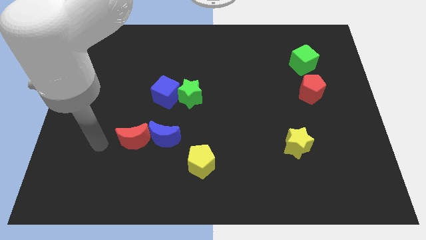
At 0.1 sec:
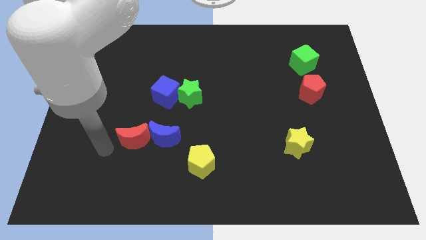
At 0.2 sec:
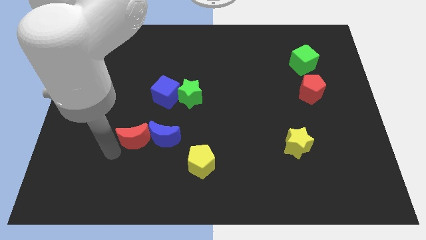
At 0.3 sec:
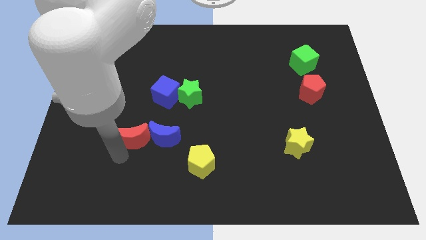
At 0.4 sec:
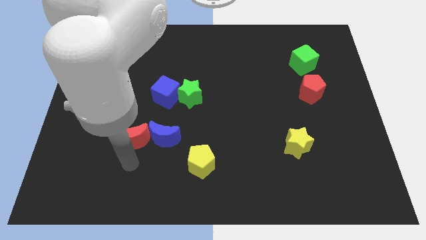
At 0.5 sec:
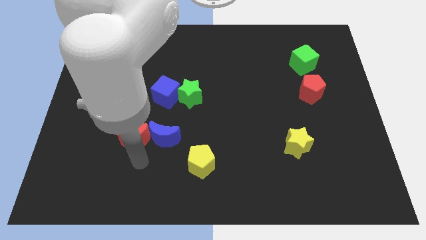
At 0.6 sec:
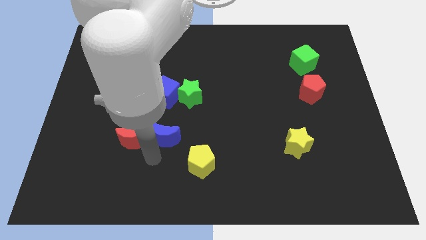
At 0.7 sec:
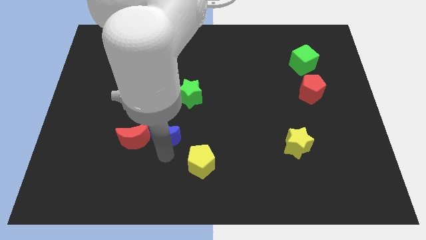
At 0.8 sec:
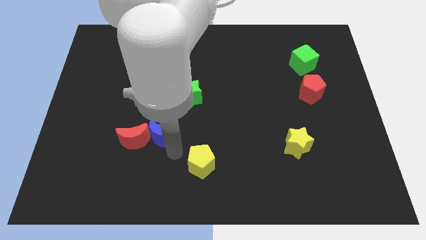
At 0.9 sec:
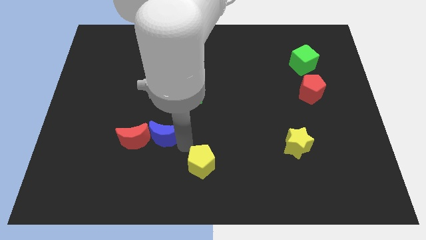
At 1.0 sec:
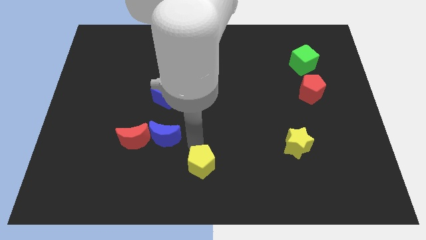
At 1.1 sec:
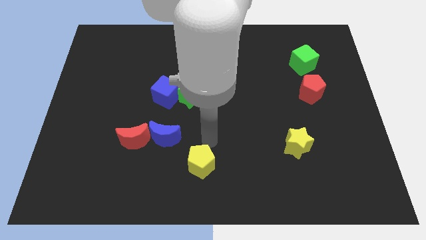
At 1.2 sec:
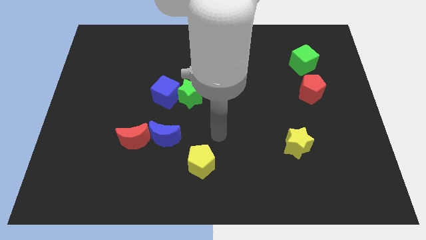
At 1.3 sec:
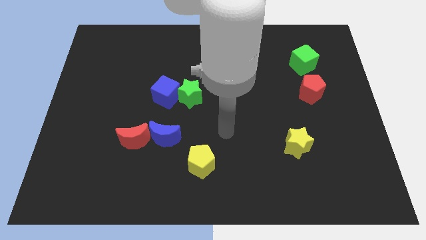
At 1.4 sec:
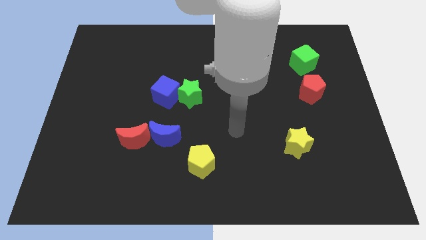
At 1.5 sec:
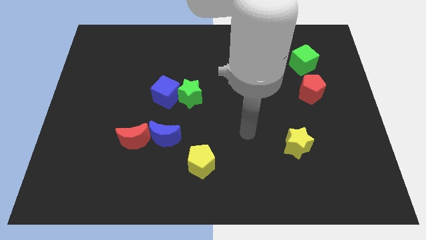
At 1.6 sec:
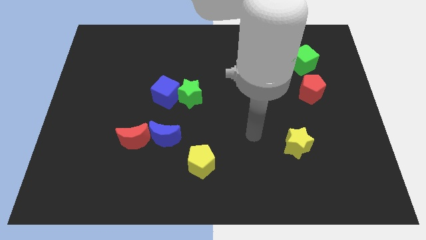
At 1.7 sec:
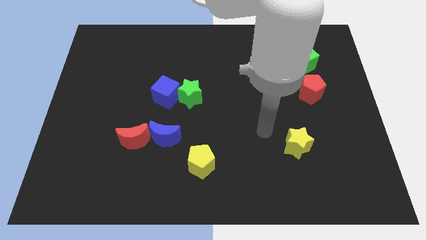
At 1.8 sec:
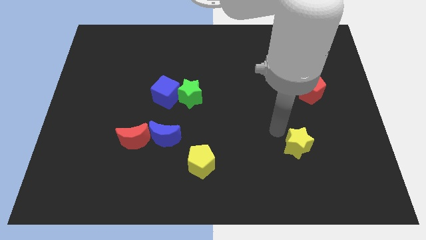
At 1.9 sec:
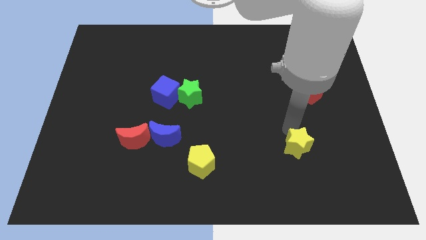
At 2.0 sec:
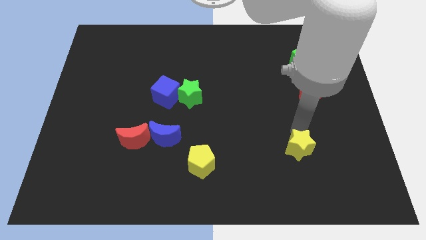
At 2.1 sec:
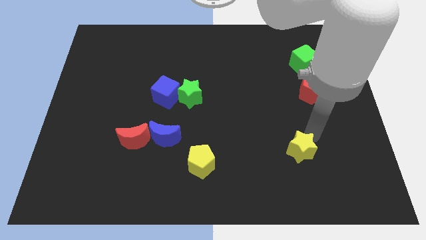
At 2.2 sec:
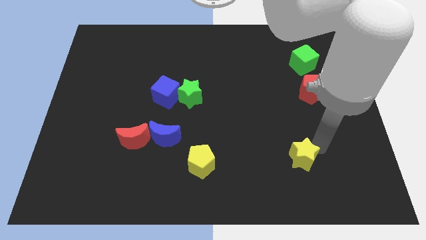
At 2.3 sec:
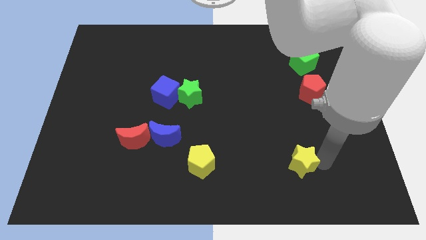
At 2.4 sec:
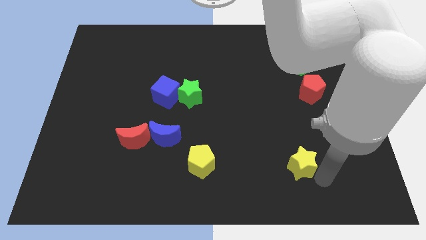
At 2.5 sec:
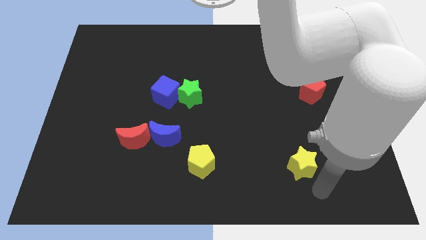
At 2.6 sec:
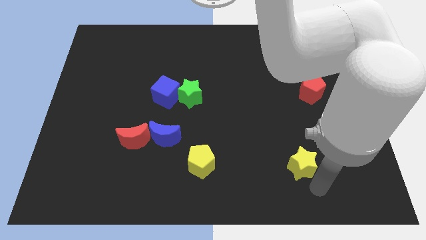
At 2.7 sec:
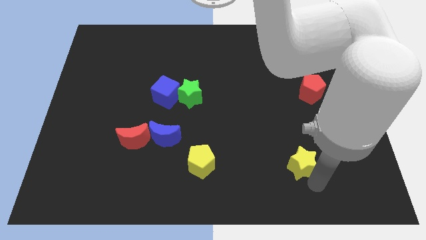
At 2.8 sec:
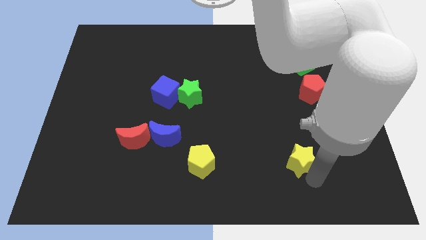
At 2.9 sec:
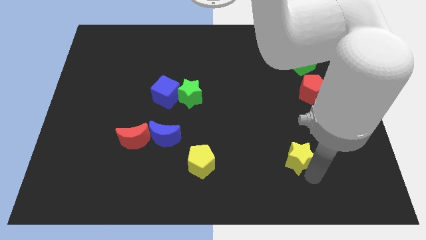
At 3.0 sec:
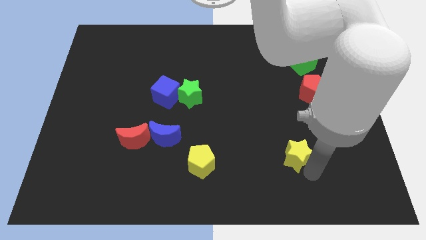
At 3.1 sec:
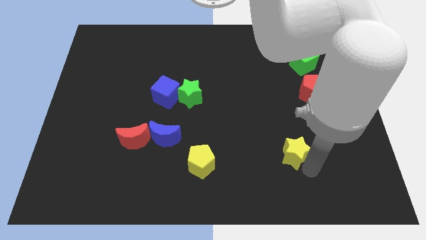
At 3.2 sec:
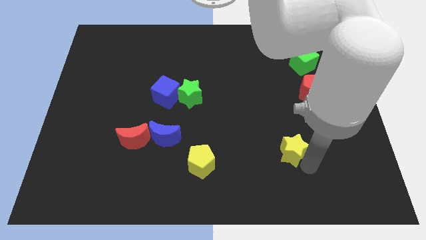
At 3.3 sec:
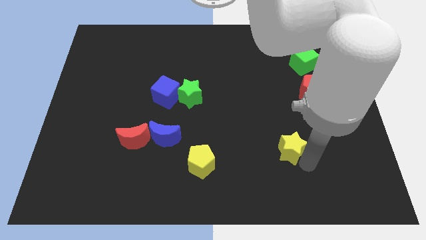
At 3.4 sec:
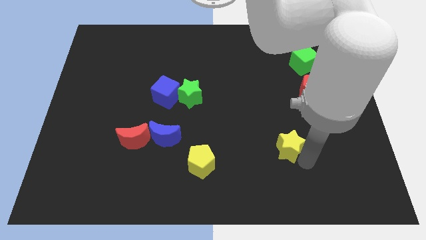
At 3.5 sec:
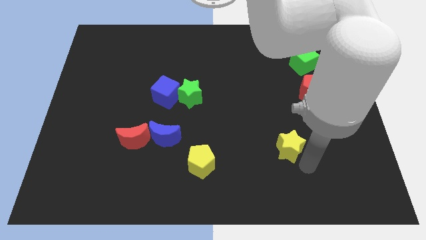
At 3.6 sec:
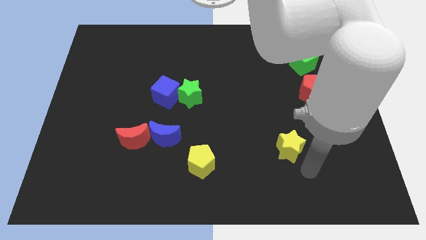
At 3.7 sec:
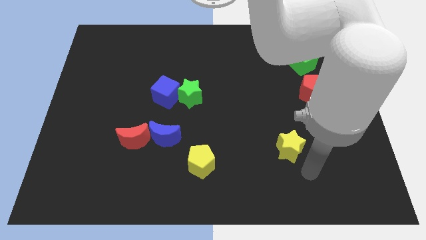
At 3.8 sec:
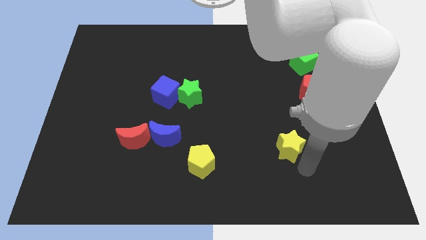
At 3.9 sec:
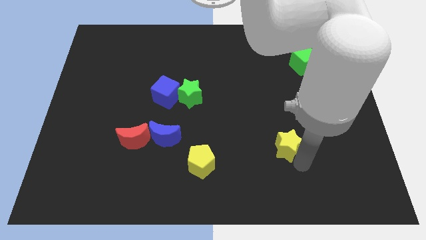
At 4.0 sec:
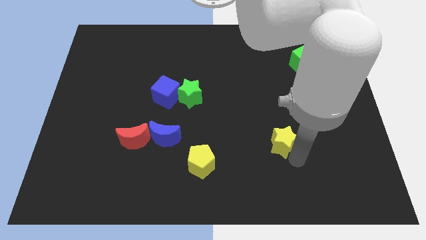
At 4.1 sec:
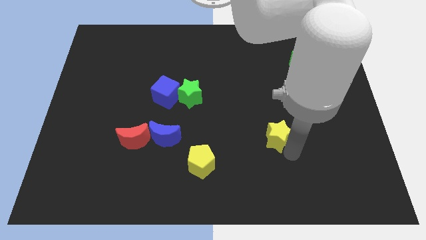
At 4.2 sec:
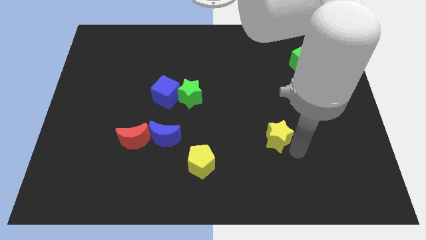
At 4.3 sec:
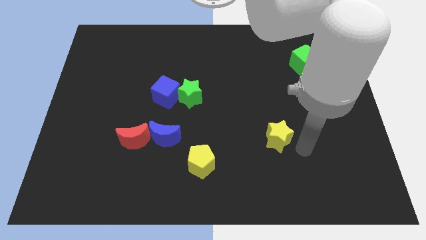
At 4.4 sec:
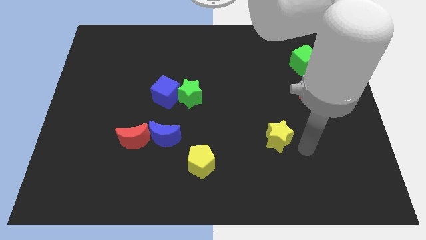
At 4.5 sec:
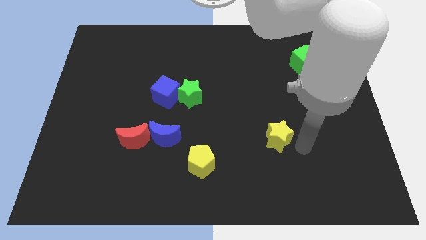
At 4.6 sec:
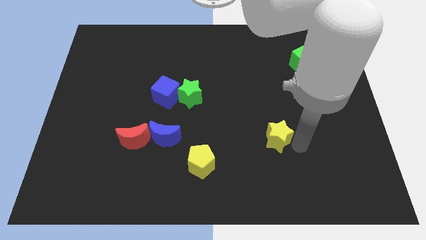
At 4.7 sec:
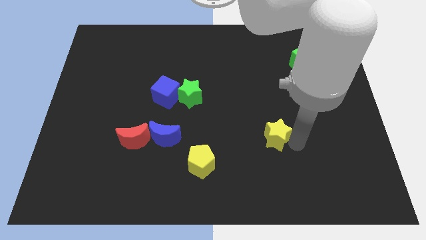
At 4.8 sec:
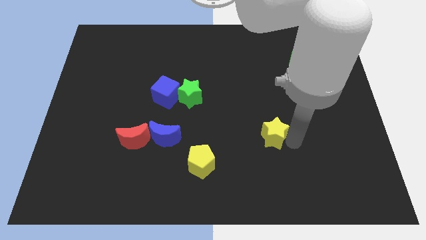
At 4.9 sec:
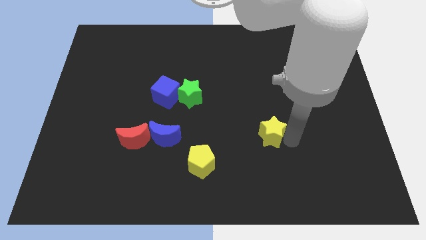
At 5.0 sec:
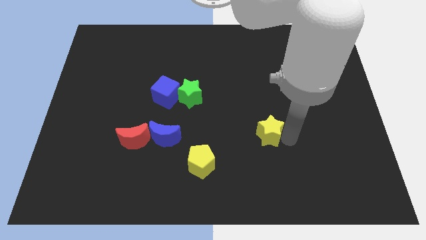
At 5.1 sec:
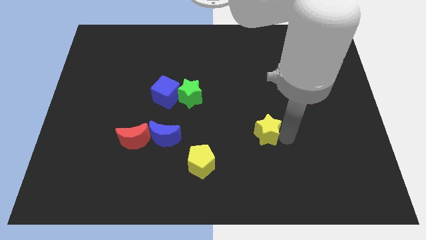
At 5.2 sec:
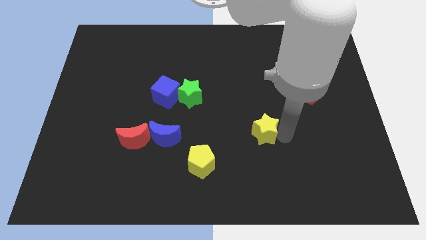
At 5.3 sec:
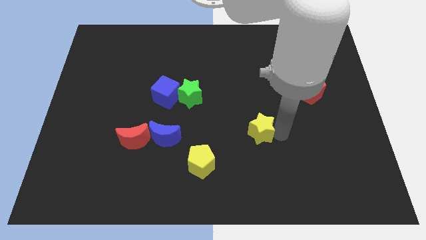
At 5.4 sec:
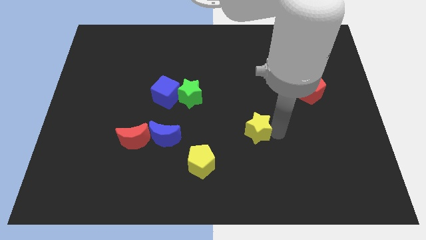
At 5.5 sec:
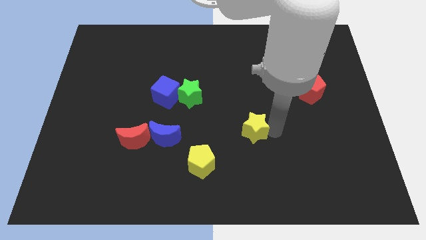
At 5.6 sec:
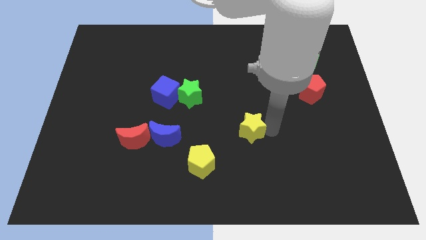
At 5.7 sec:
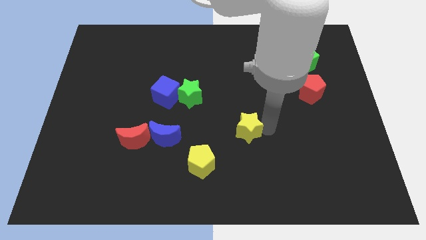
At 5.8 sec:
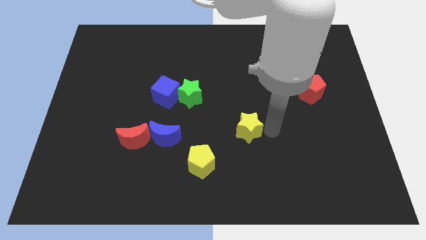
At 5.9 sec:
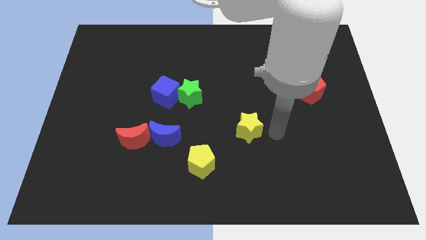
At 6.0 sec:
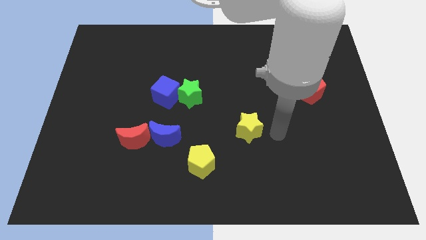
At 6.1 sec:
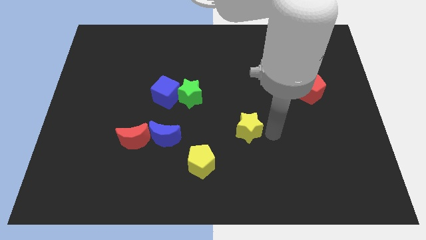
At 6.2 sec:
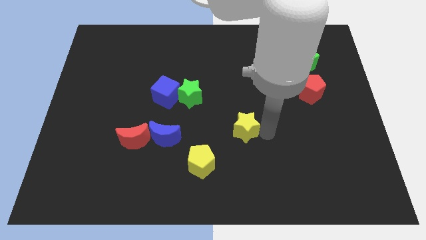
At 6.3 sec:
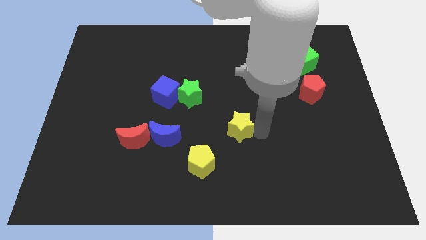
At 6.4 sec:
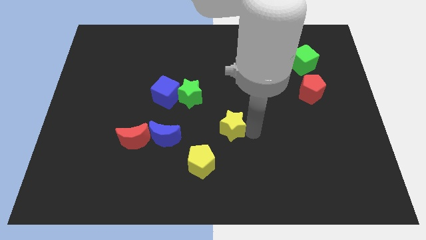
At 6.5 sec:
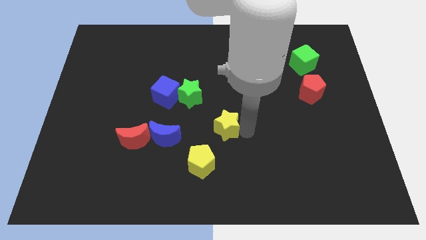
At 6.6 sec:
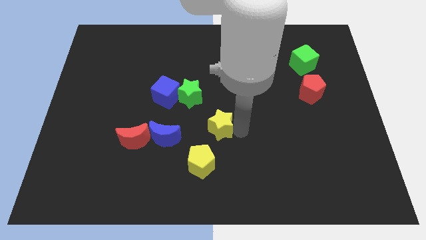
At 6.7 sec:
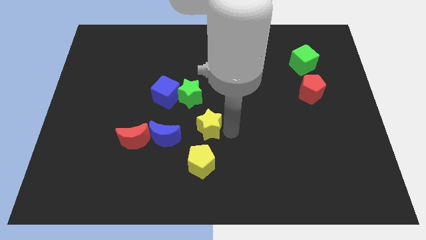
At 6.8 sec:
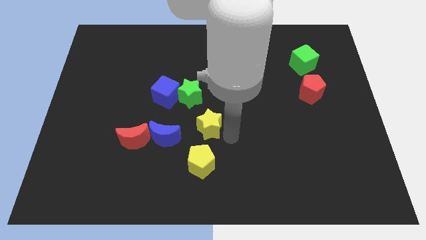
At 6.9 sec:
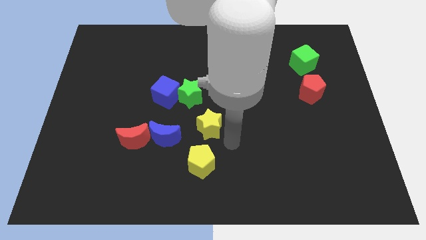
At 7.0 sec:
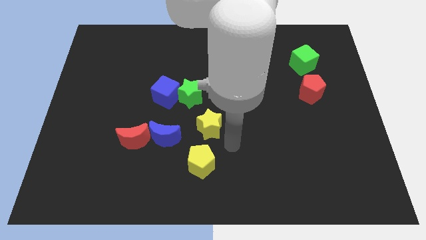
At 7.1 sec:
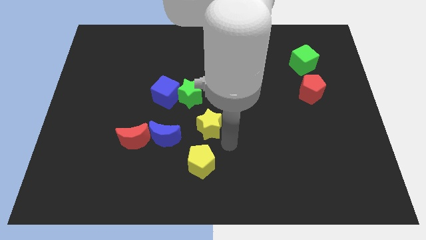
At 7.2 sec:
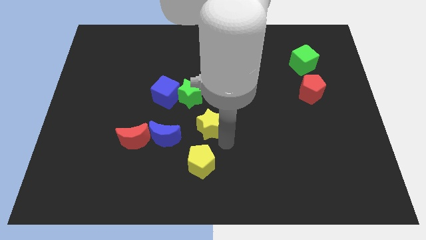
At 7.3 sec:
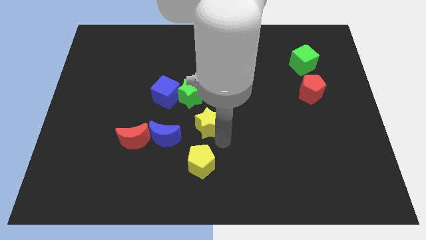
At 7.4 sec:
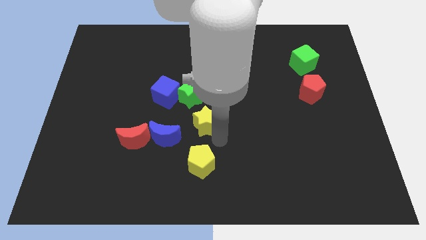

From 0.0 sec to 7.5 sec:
move the yellow star to the bottom right of the blue cube
